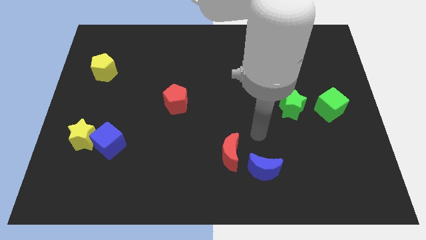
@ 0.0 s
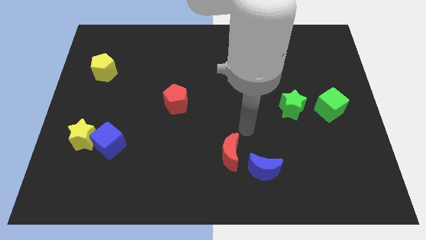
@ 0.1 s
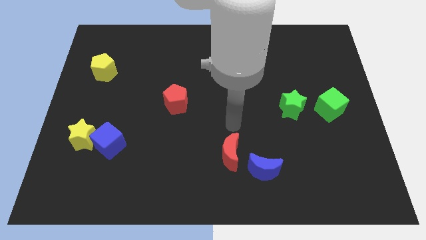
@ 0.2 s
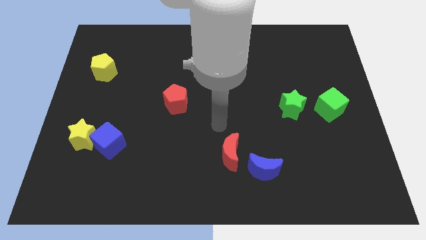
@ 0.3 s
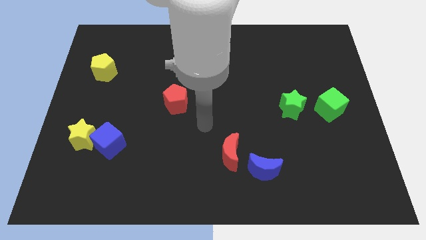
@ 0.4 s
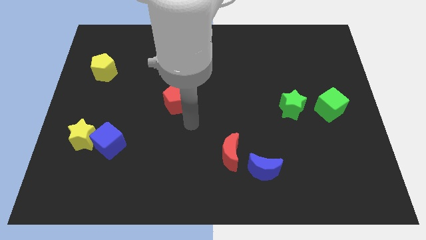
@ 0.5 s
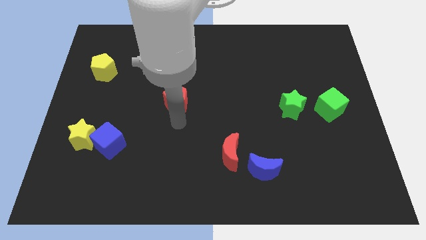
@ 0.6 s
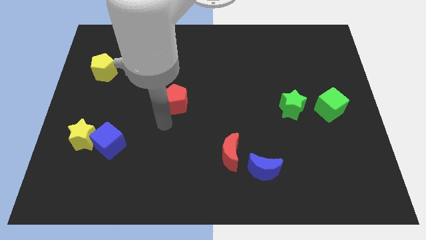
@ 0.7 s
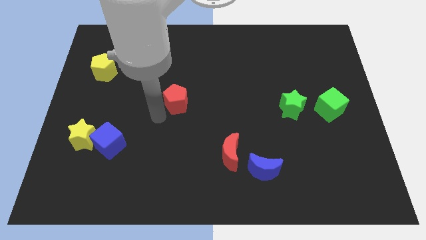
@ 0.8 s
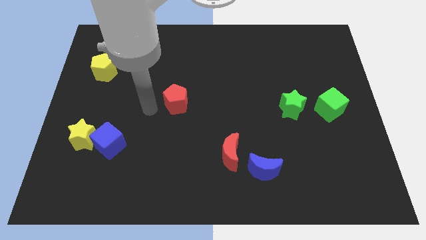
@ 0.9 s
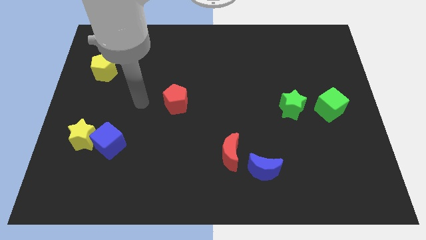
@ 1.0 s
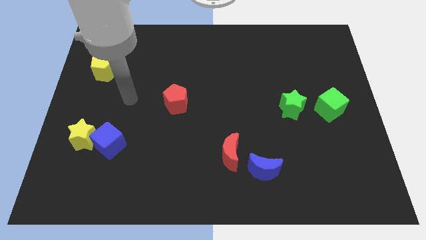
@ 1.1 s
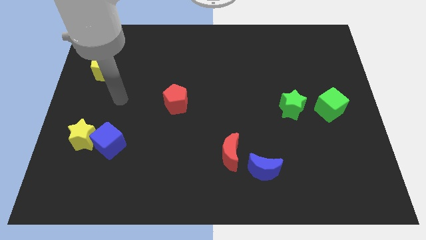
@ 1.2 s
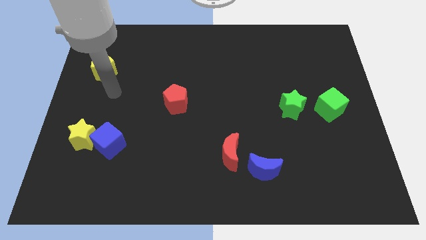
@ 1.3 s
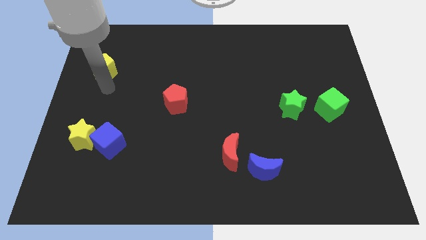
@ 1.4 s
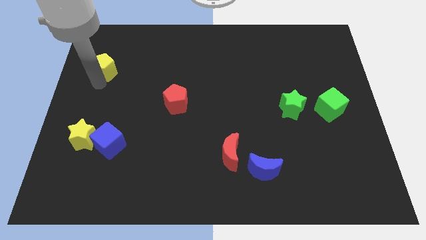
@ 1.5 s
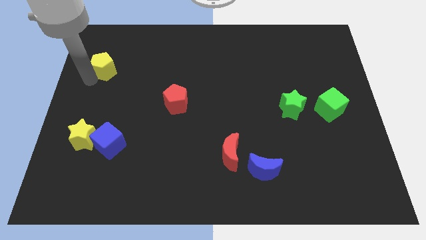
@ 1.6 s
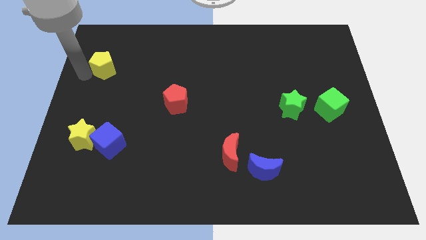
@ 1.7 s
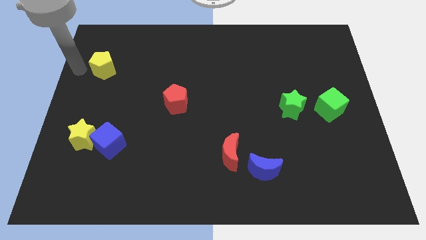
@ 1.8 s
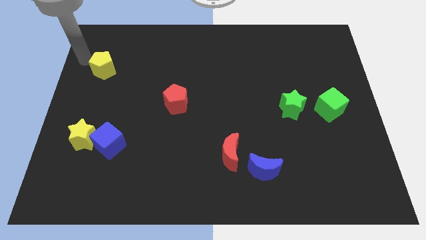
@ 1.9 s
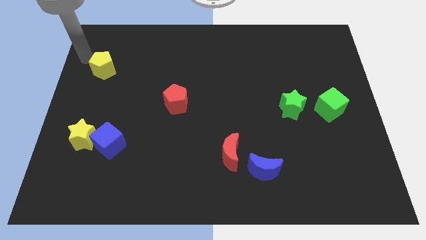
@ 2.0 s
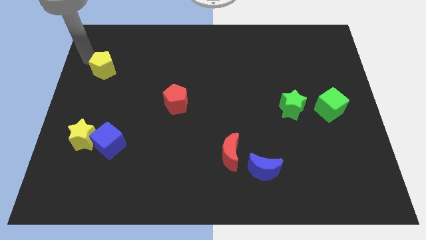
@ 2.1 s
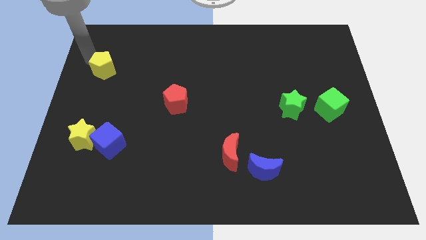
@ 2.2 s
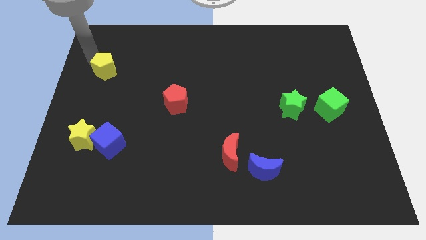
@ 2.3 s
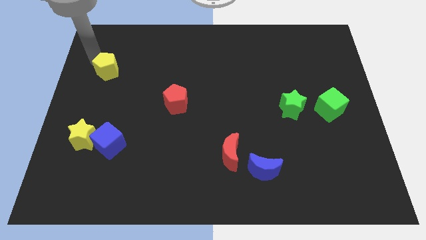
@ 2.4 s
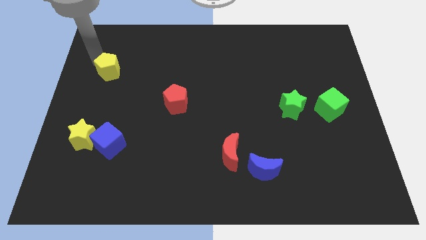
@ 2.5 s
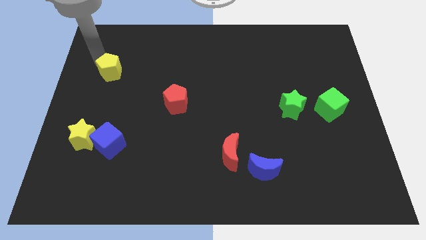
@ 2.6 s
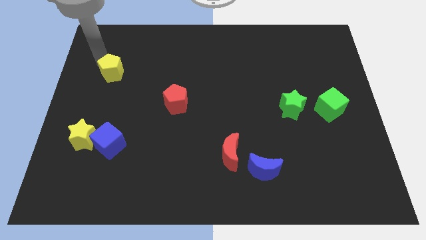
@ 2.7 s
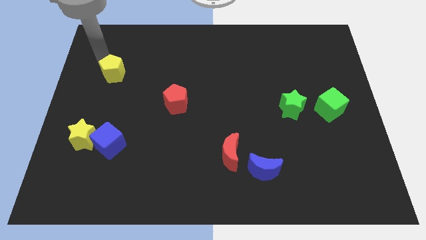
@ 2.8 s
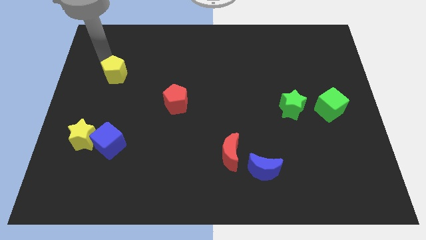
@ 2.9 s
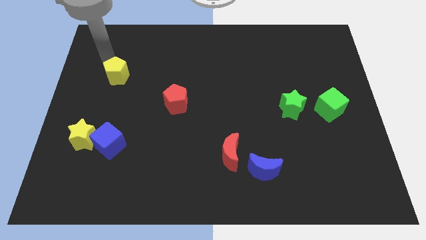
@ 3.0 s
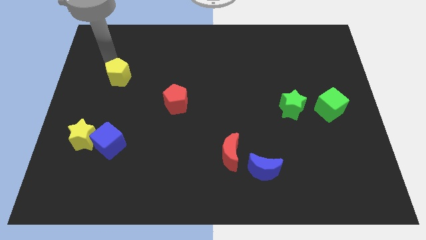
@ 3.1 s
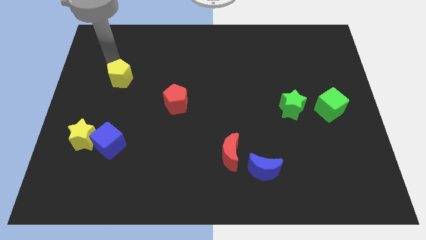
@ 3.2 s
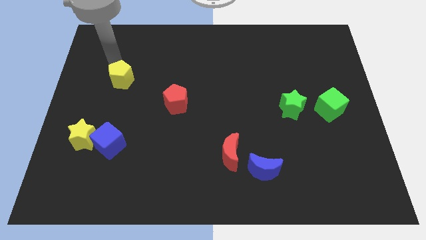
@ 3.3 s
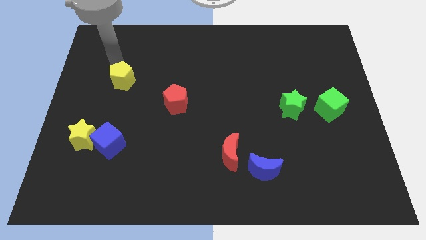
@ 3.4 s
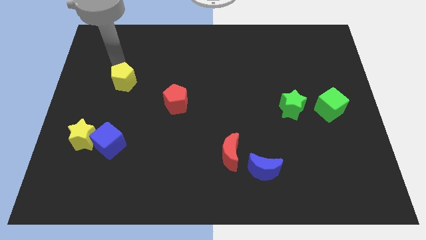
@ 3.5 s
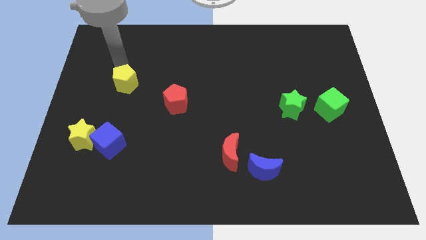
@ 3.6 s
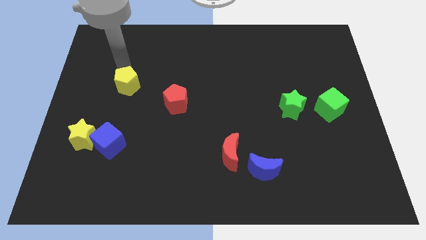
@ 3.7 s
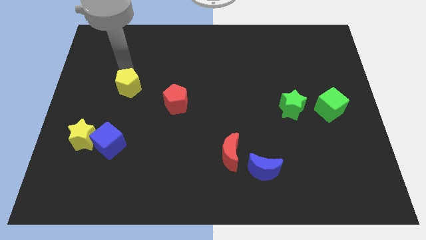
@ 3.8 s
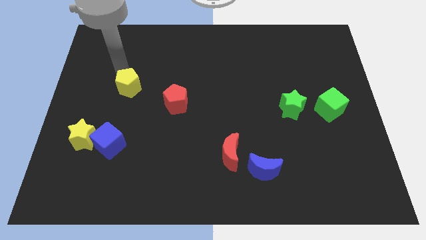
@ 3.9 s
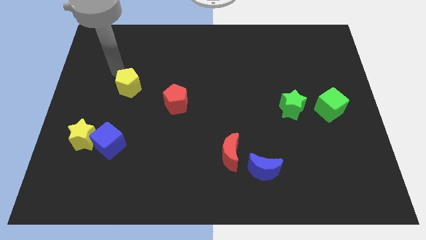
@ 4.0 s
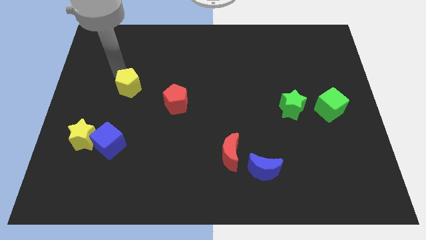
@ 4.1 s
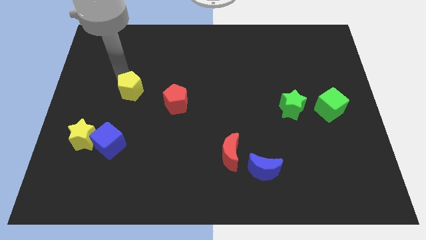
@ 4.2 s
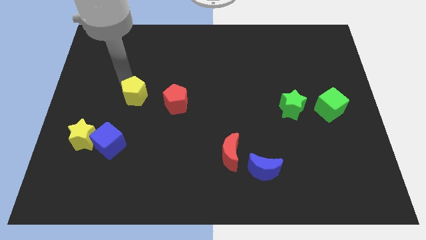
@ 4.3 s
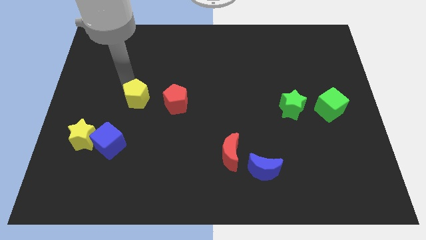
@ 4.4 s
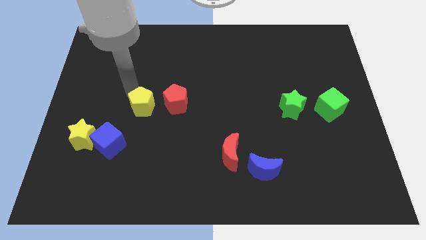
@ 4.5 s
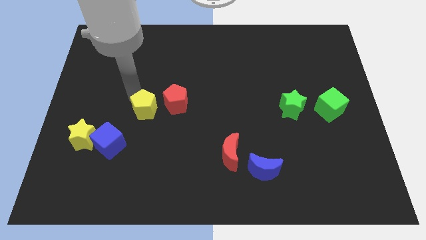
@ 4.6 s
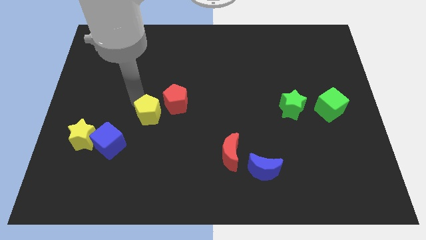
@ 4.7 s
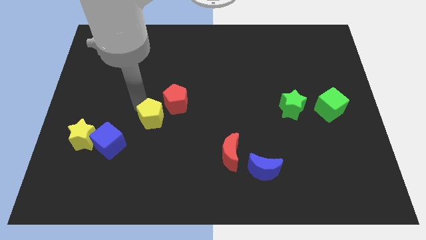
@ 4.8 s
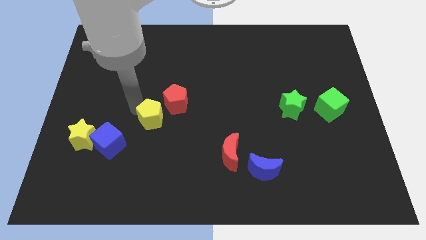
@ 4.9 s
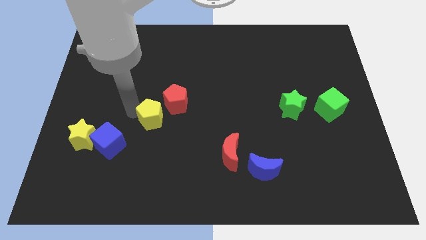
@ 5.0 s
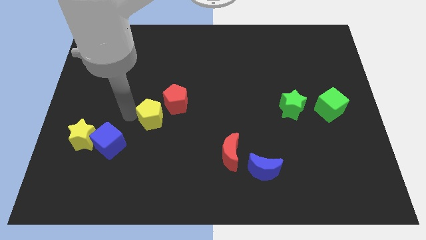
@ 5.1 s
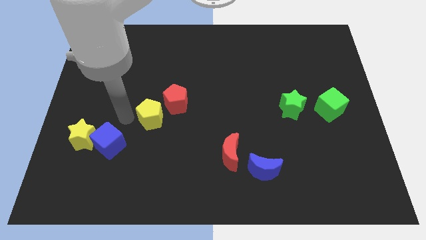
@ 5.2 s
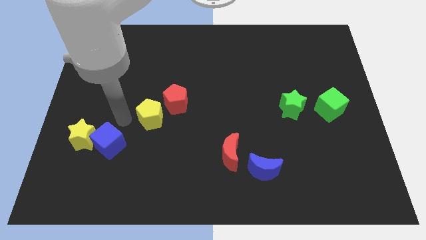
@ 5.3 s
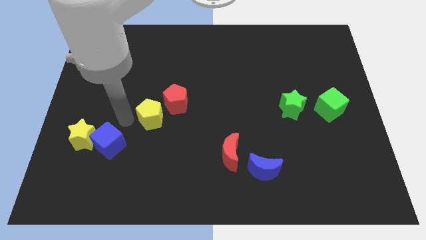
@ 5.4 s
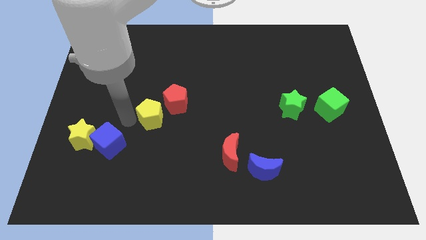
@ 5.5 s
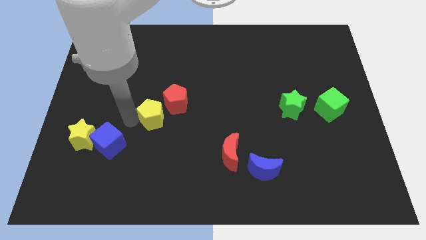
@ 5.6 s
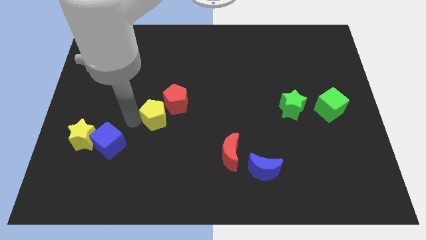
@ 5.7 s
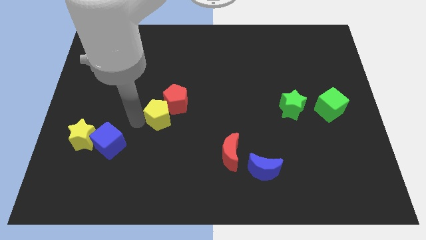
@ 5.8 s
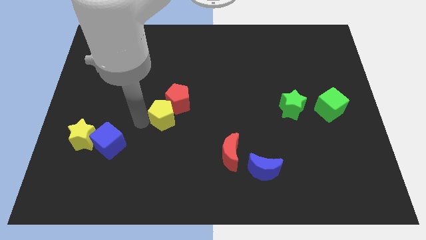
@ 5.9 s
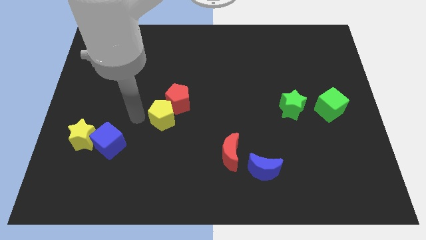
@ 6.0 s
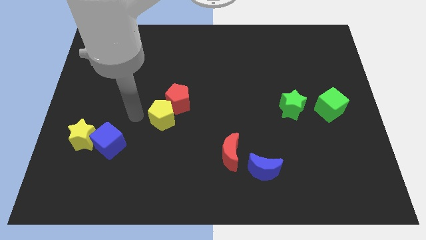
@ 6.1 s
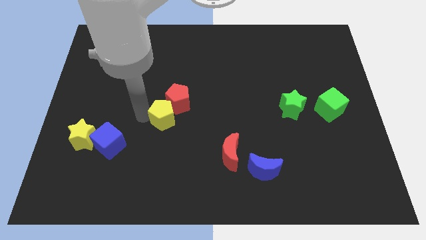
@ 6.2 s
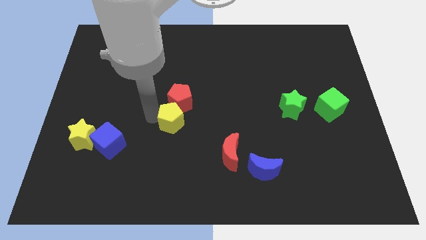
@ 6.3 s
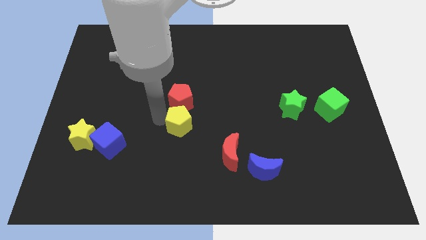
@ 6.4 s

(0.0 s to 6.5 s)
push the yellow pentagon to the bottom right side of the red pentagon

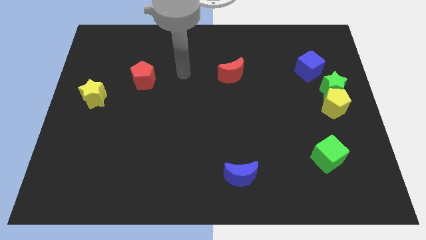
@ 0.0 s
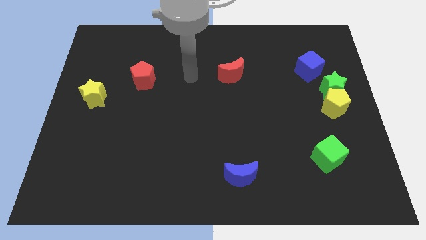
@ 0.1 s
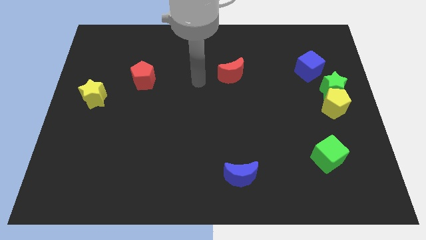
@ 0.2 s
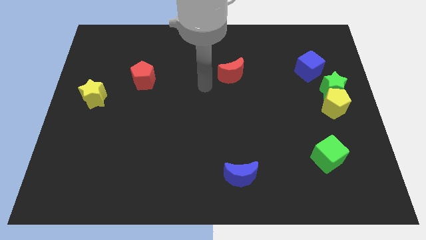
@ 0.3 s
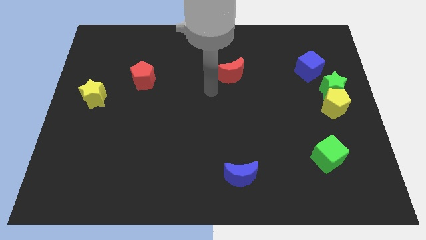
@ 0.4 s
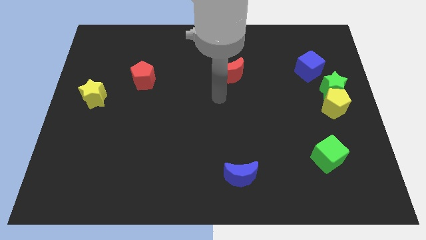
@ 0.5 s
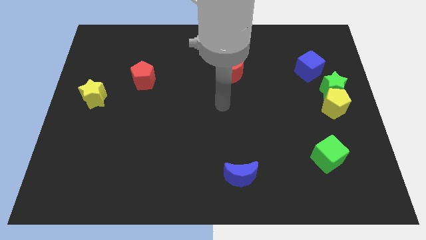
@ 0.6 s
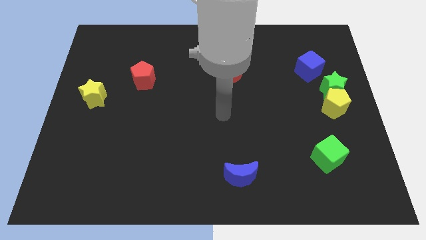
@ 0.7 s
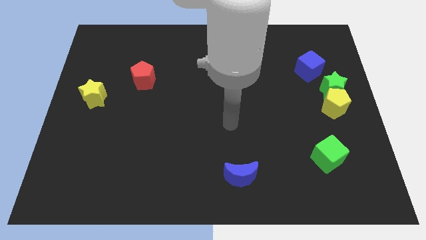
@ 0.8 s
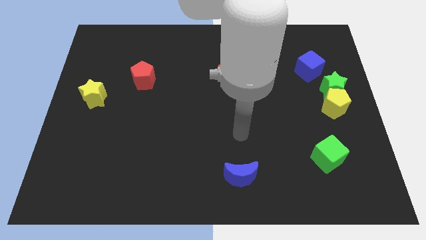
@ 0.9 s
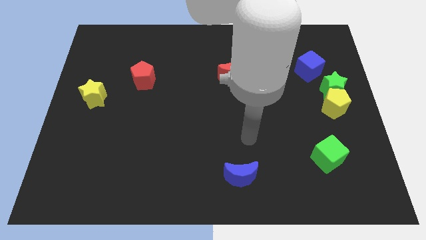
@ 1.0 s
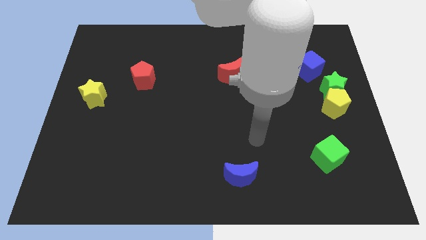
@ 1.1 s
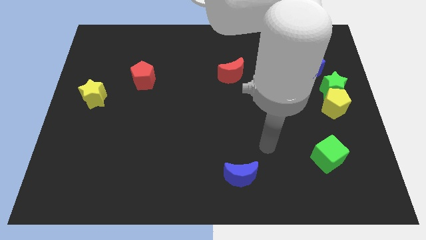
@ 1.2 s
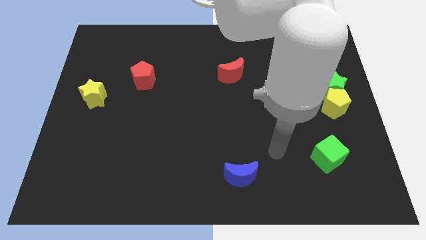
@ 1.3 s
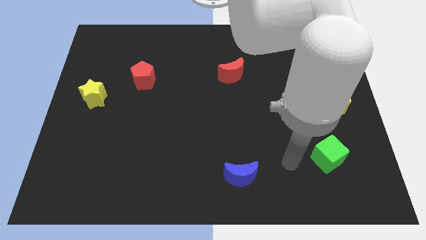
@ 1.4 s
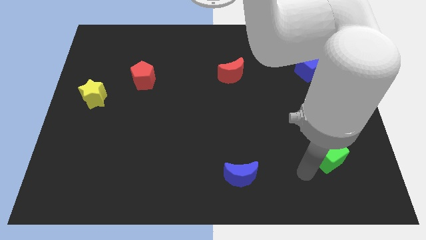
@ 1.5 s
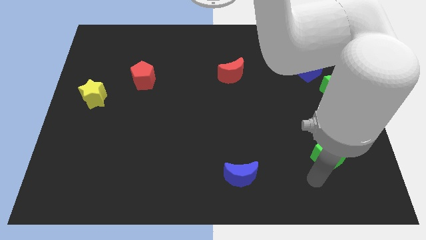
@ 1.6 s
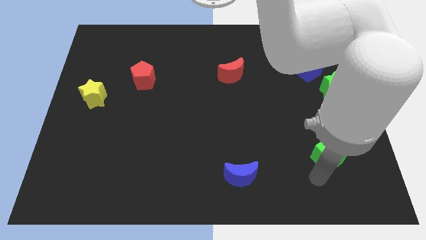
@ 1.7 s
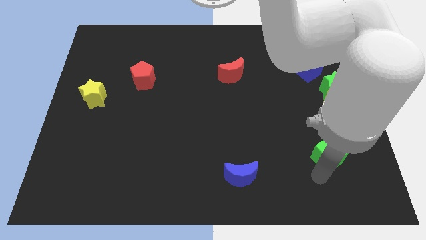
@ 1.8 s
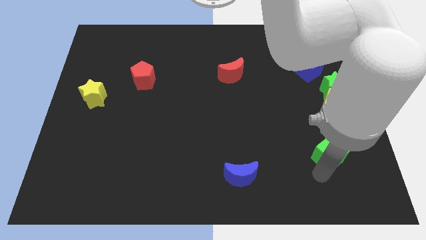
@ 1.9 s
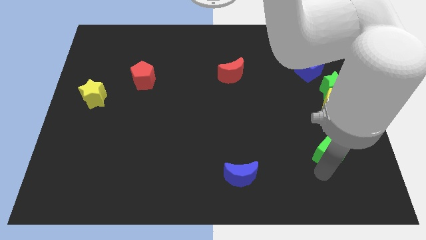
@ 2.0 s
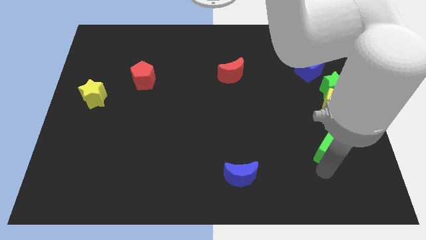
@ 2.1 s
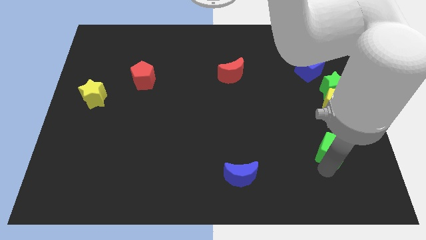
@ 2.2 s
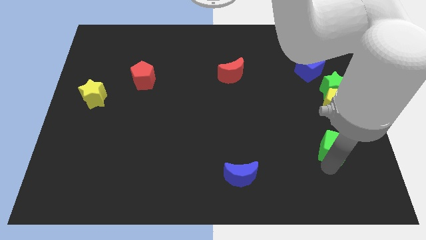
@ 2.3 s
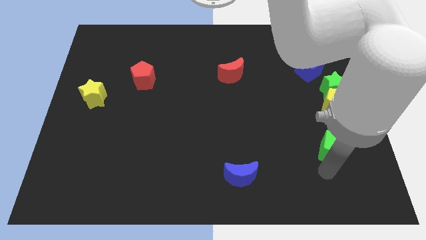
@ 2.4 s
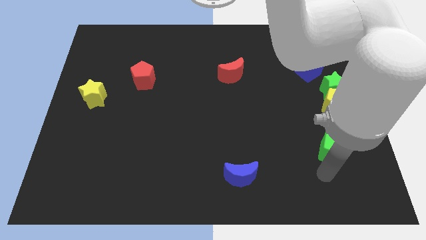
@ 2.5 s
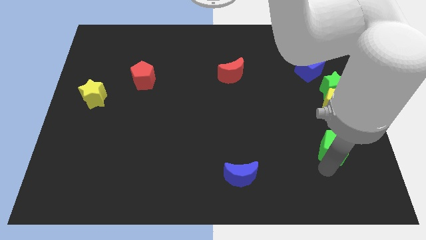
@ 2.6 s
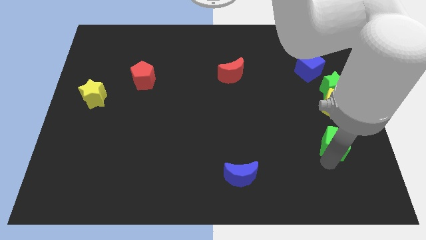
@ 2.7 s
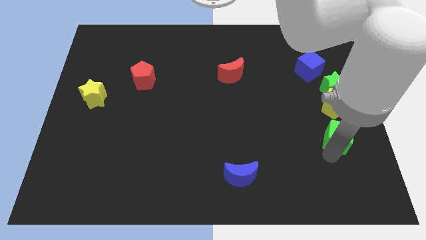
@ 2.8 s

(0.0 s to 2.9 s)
push the green cube below the green star
